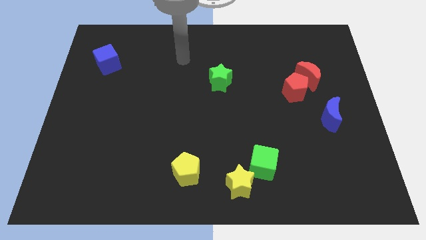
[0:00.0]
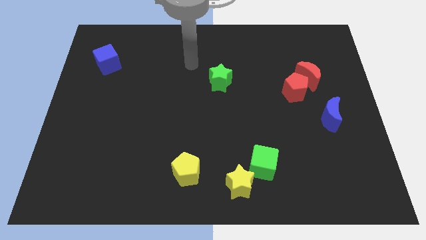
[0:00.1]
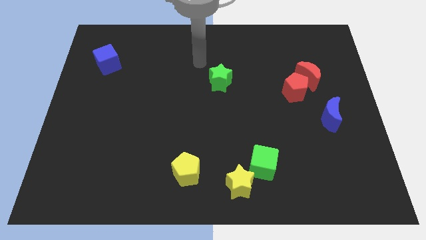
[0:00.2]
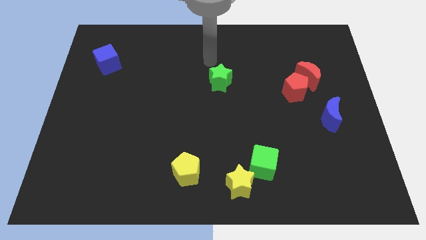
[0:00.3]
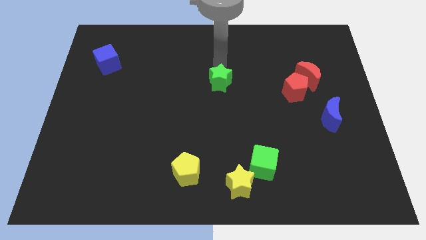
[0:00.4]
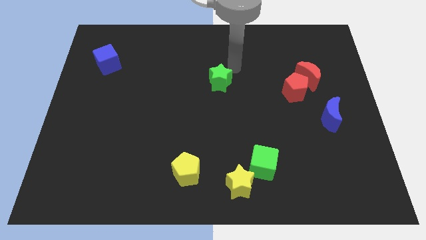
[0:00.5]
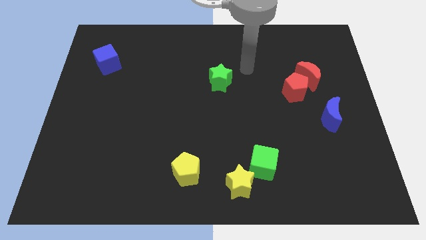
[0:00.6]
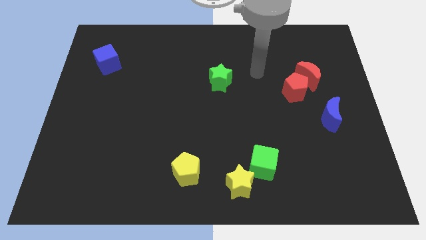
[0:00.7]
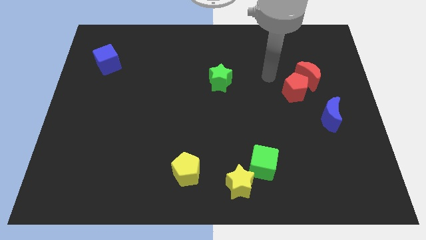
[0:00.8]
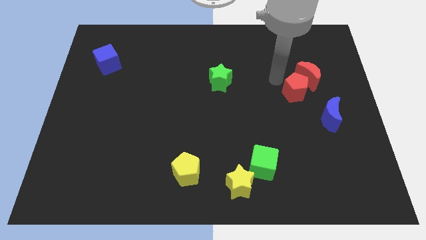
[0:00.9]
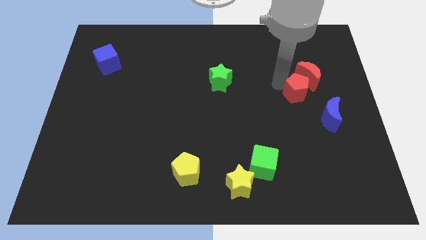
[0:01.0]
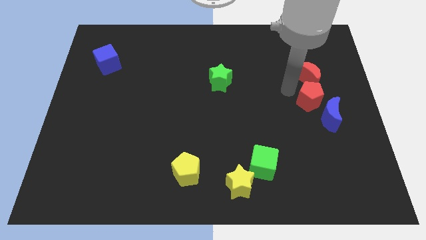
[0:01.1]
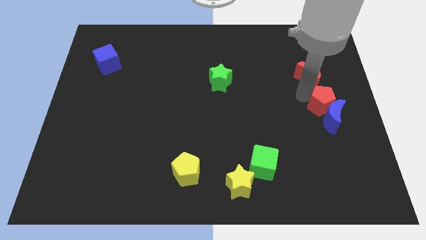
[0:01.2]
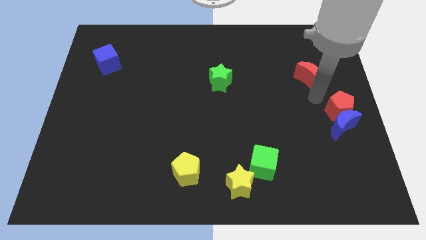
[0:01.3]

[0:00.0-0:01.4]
move the red moon away from the red pentagon

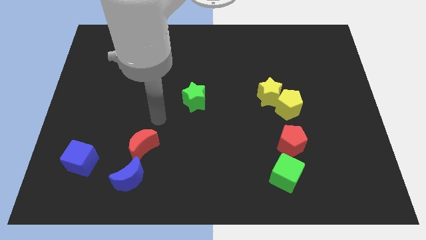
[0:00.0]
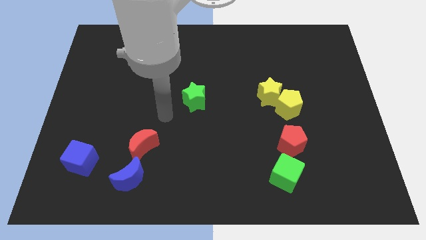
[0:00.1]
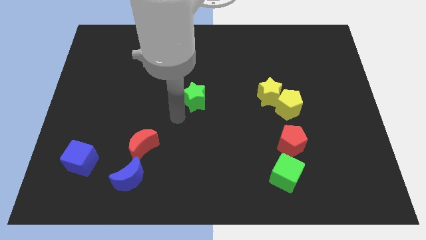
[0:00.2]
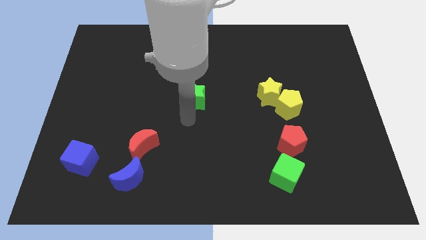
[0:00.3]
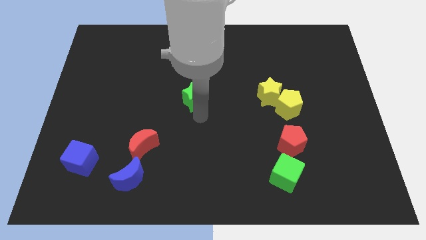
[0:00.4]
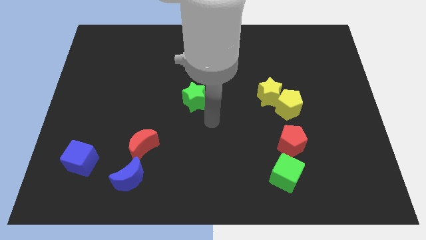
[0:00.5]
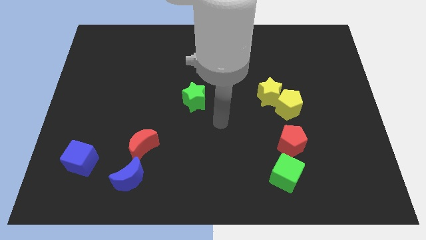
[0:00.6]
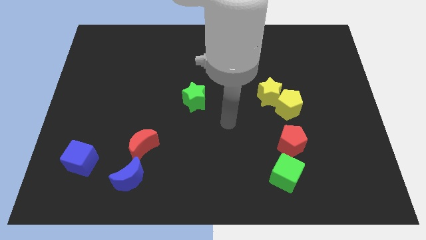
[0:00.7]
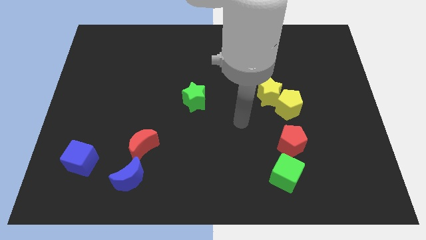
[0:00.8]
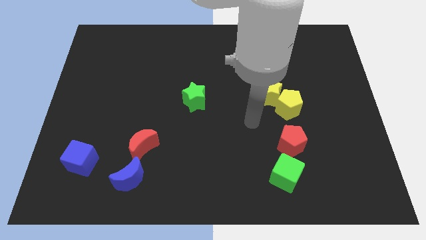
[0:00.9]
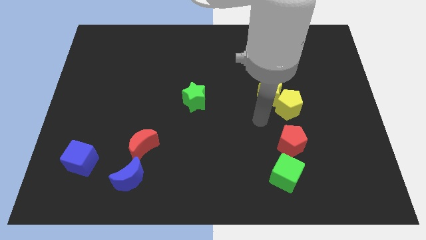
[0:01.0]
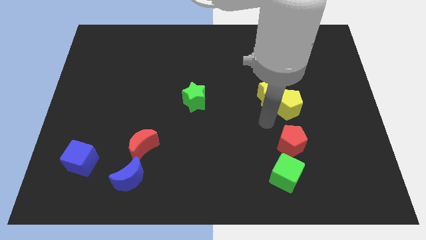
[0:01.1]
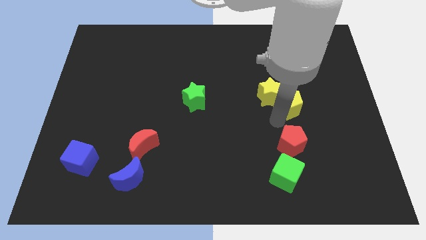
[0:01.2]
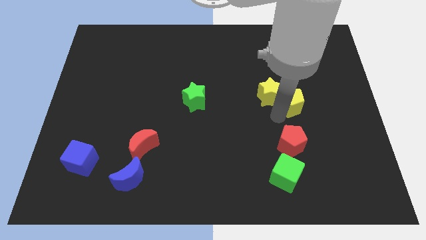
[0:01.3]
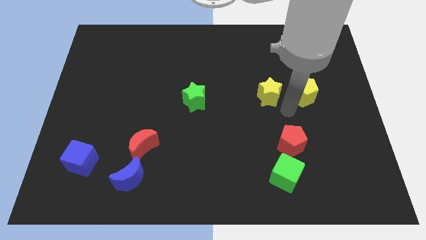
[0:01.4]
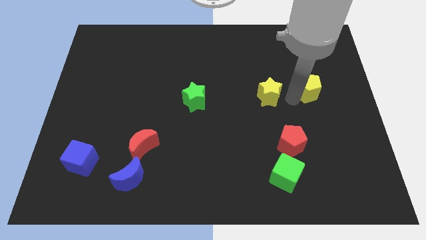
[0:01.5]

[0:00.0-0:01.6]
pull the yellow star apart from the yellow pentagon

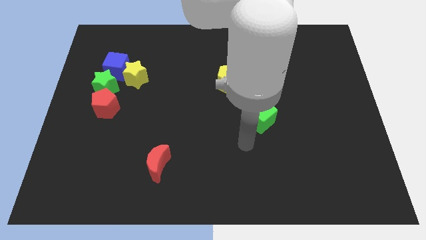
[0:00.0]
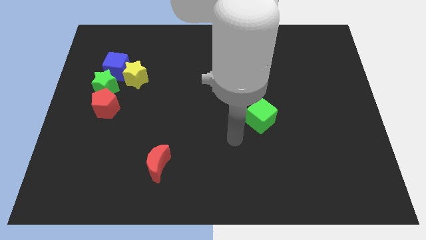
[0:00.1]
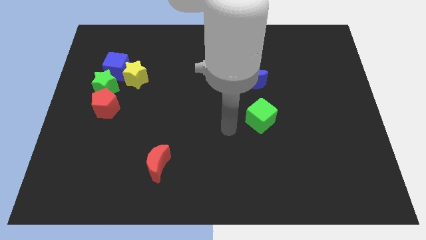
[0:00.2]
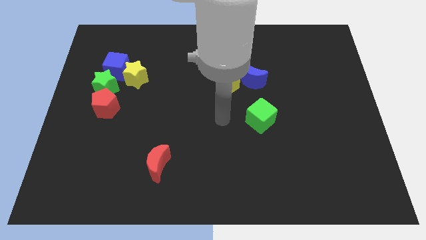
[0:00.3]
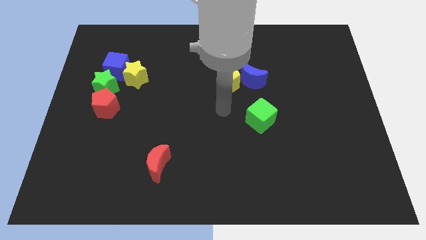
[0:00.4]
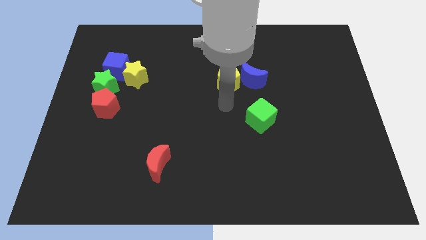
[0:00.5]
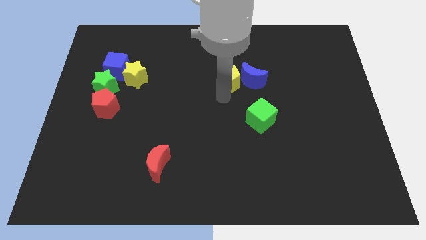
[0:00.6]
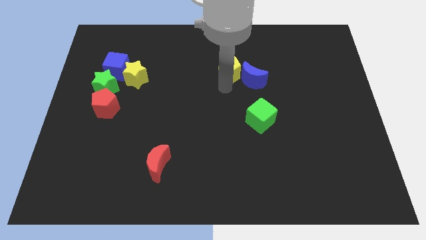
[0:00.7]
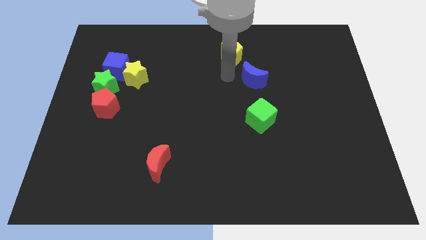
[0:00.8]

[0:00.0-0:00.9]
separate the blue moon from the yellow pentagon

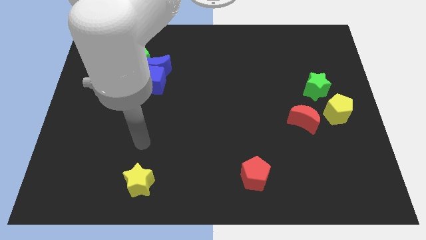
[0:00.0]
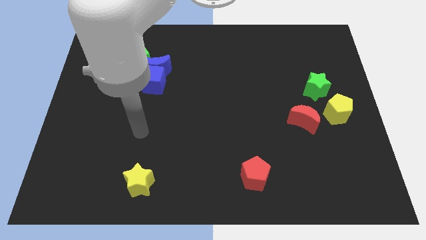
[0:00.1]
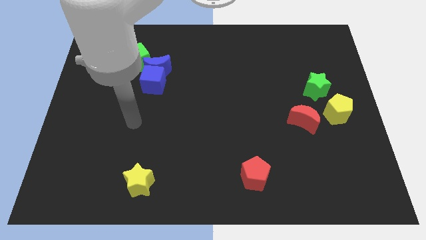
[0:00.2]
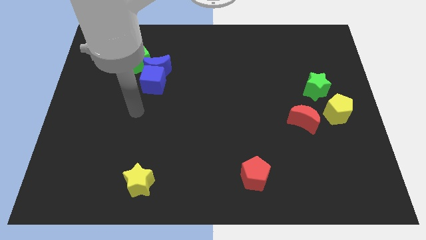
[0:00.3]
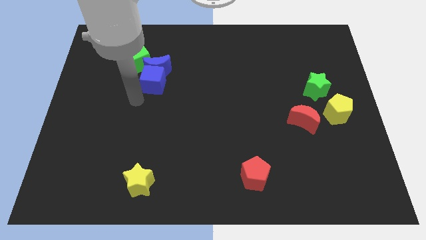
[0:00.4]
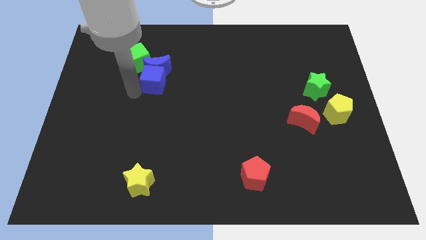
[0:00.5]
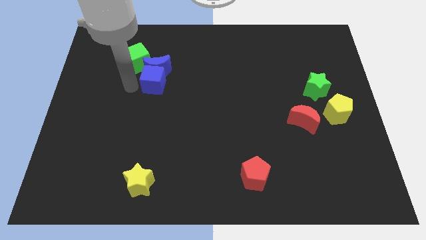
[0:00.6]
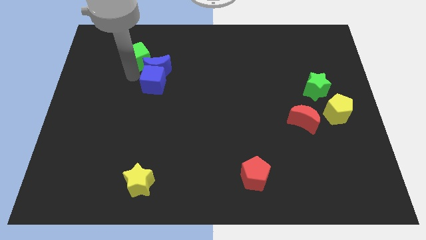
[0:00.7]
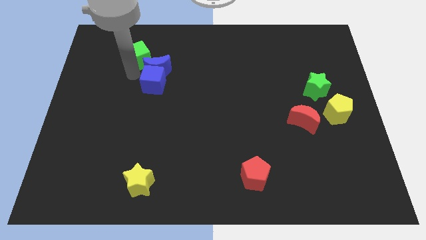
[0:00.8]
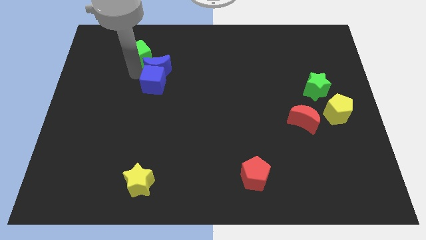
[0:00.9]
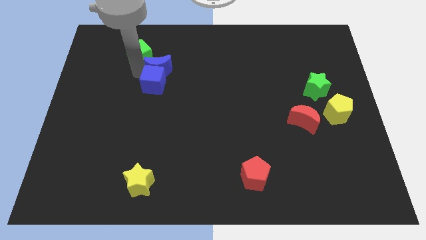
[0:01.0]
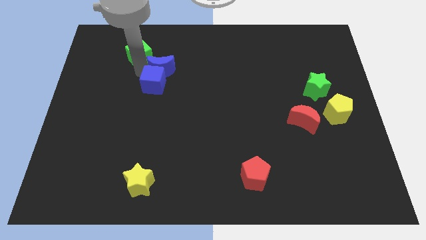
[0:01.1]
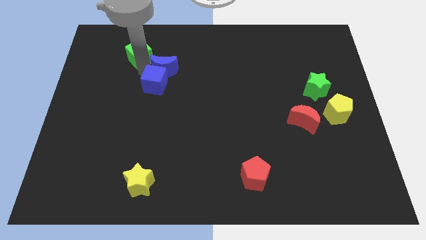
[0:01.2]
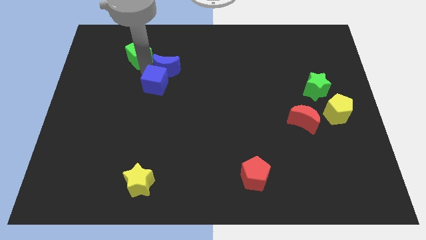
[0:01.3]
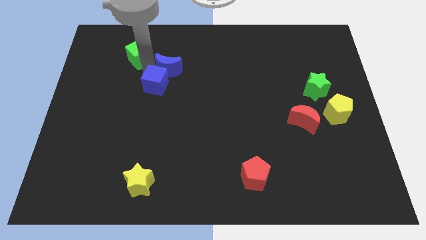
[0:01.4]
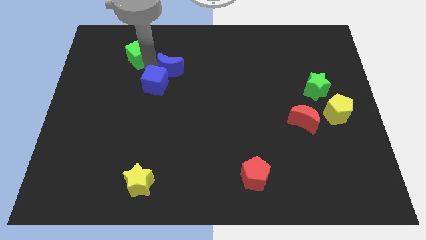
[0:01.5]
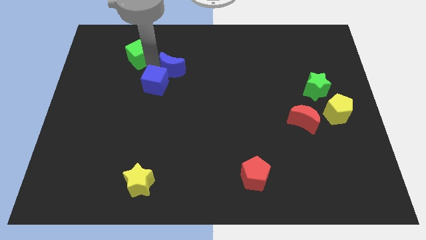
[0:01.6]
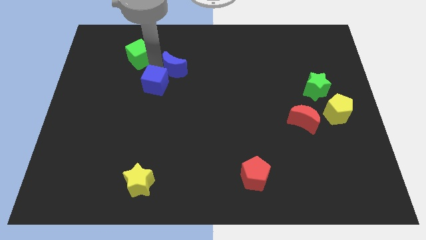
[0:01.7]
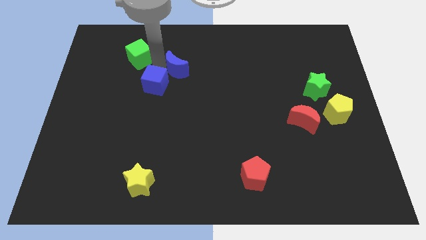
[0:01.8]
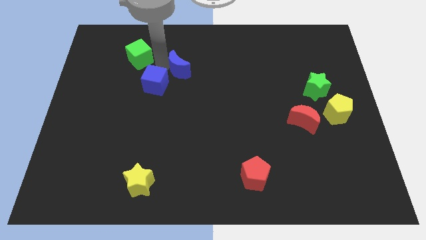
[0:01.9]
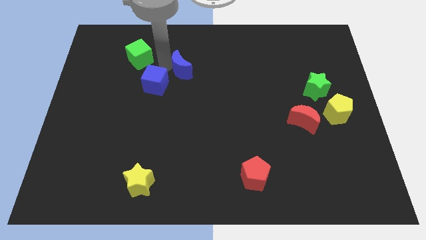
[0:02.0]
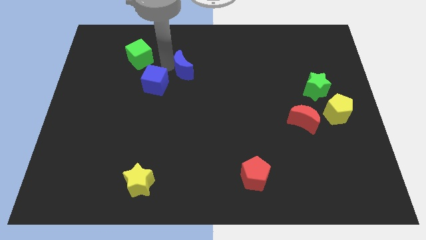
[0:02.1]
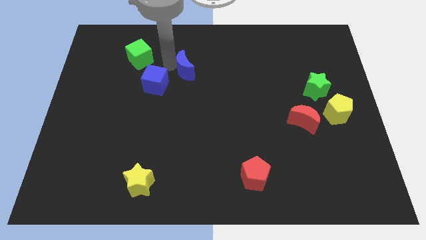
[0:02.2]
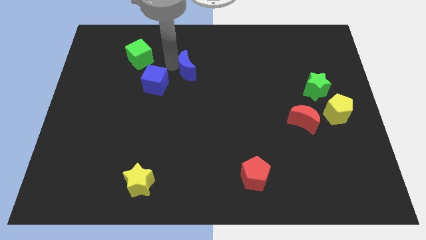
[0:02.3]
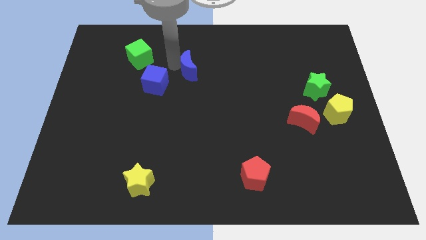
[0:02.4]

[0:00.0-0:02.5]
pull the blue moon apart from the blue cube and green cube

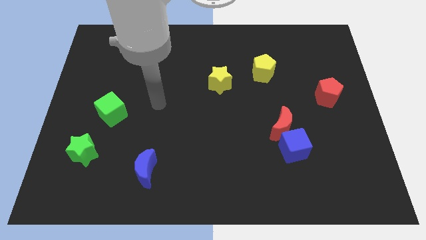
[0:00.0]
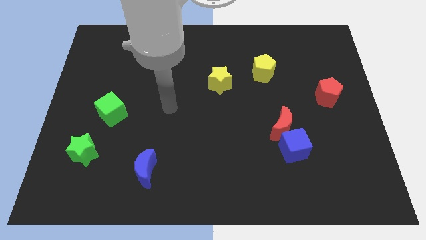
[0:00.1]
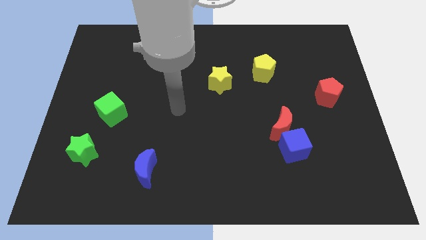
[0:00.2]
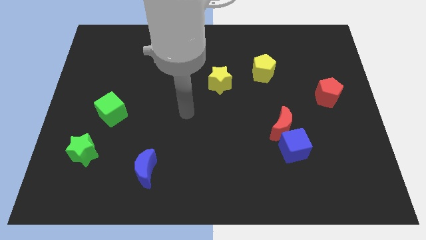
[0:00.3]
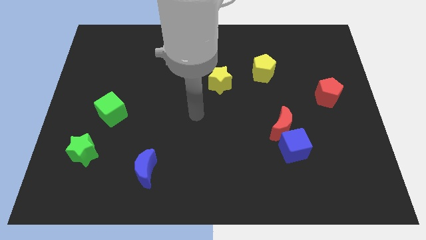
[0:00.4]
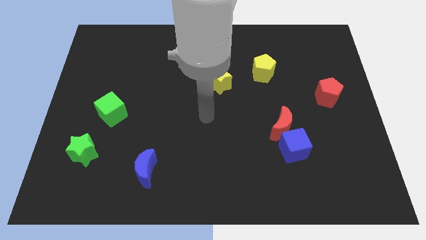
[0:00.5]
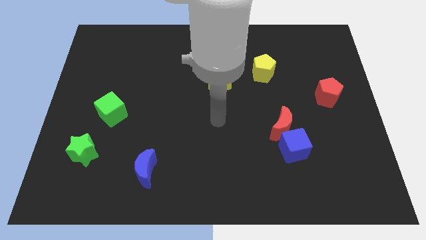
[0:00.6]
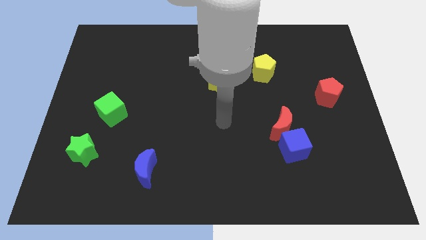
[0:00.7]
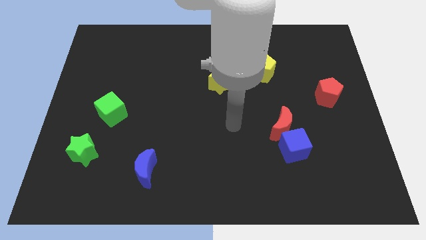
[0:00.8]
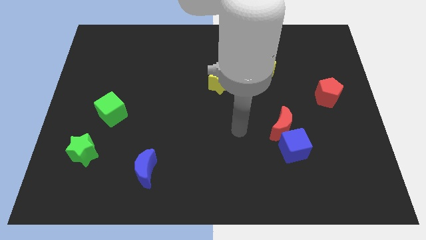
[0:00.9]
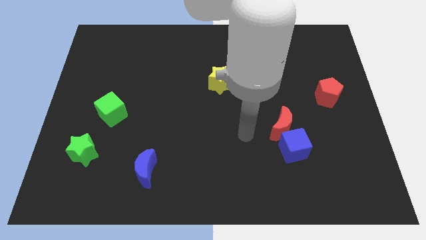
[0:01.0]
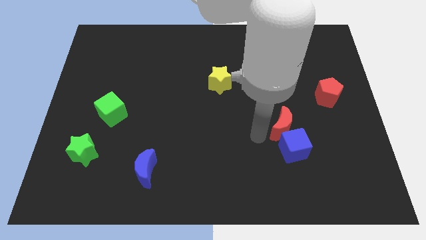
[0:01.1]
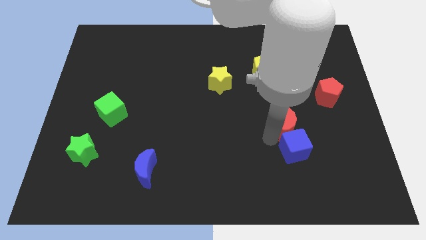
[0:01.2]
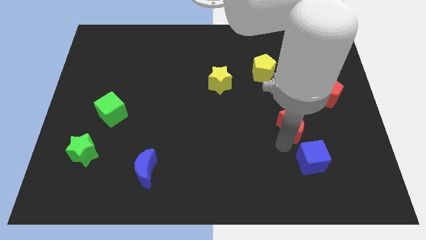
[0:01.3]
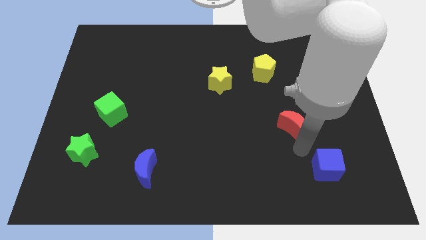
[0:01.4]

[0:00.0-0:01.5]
move the red moon away from the blue cube
